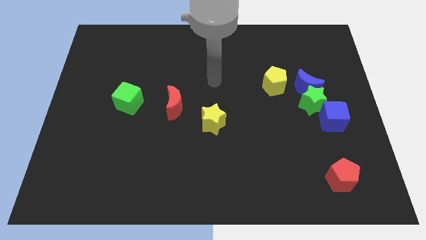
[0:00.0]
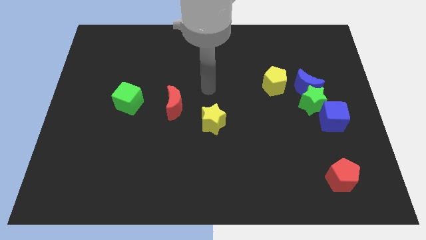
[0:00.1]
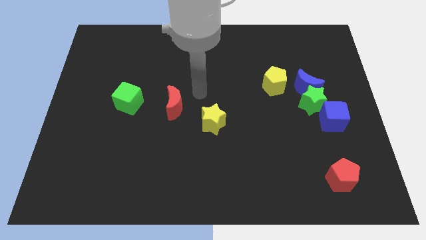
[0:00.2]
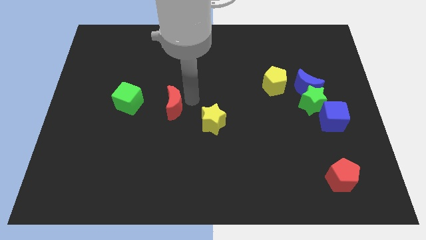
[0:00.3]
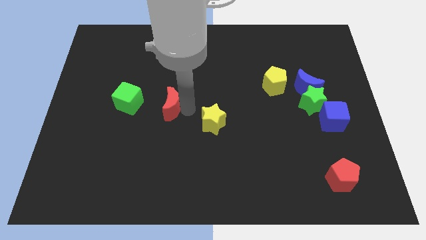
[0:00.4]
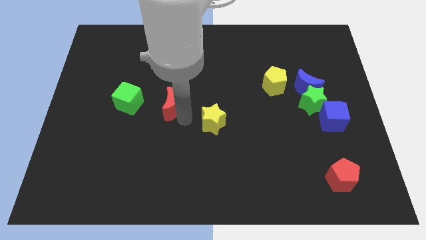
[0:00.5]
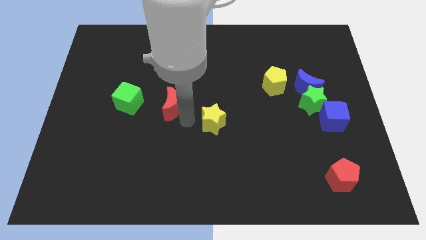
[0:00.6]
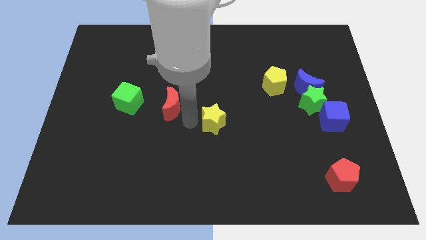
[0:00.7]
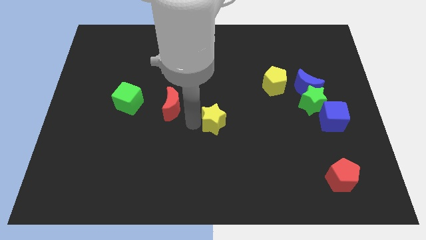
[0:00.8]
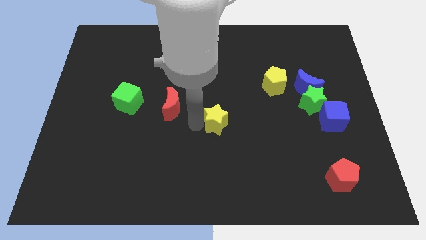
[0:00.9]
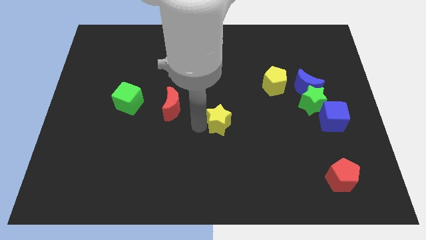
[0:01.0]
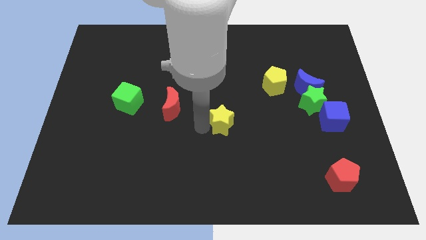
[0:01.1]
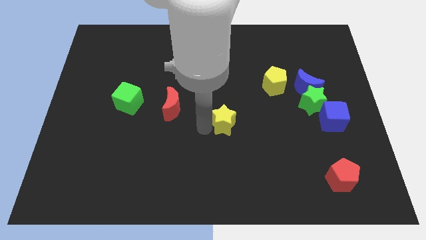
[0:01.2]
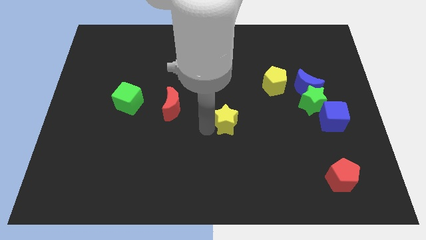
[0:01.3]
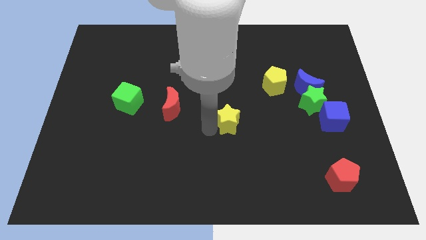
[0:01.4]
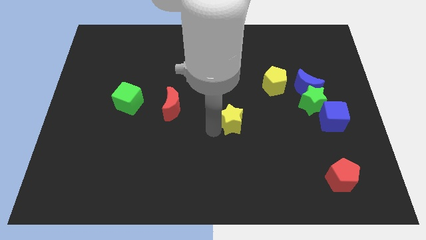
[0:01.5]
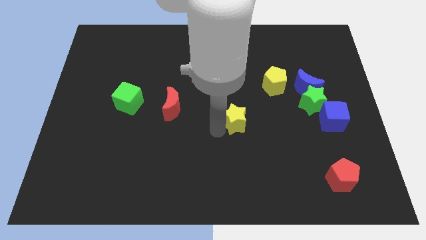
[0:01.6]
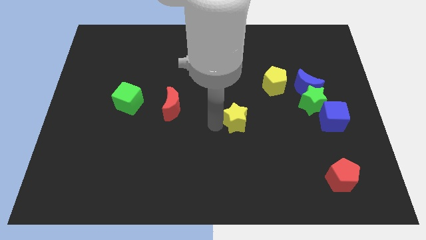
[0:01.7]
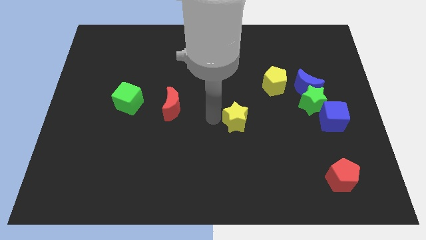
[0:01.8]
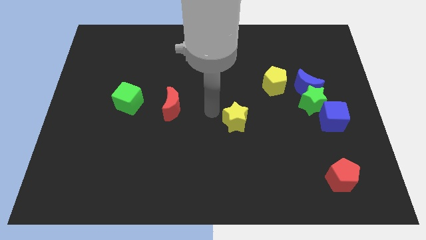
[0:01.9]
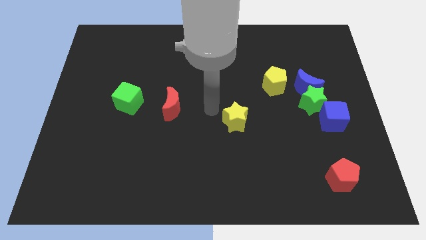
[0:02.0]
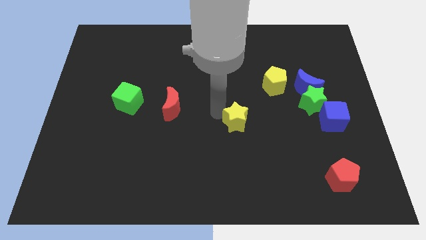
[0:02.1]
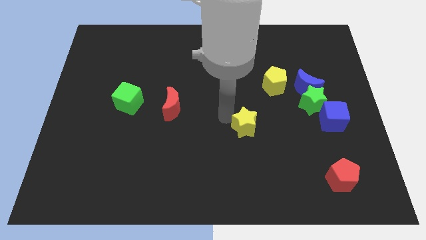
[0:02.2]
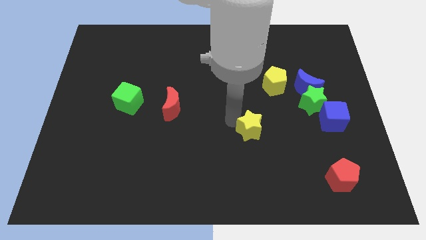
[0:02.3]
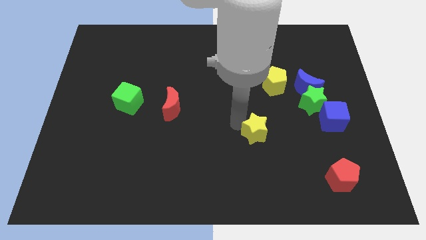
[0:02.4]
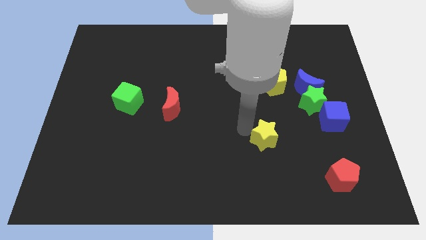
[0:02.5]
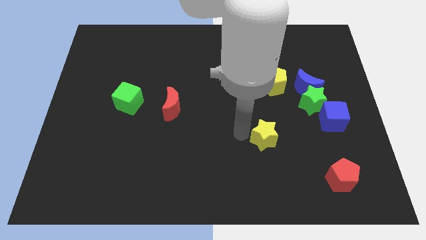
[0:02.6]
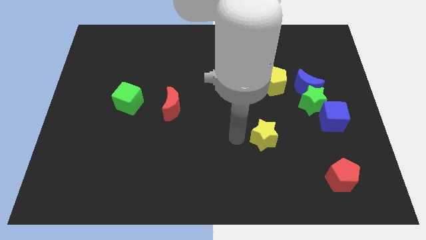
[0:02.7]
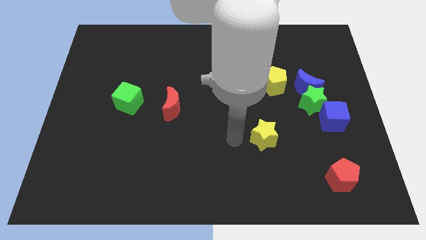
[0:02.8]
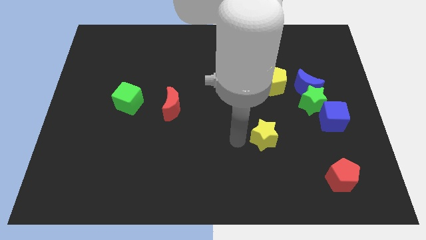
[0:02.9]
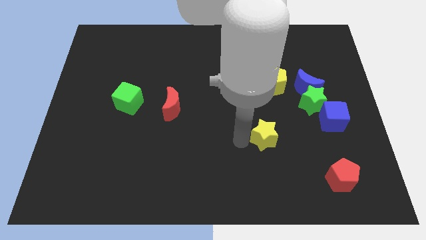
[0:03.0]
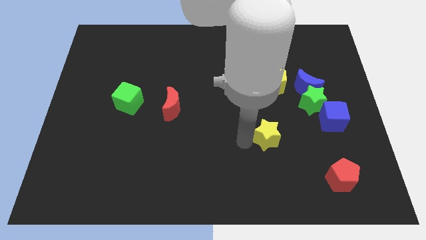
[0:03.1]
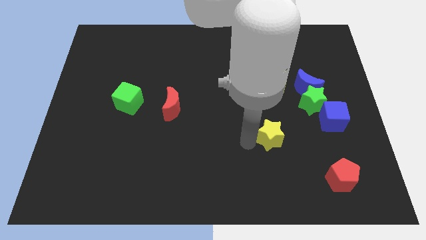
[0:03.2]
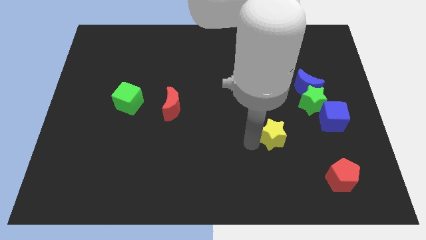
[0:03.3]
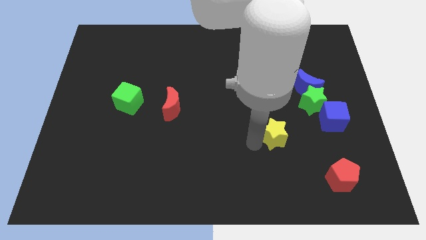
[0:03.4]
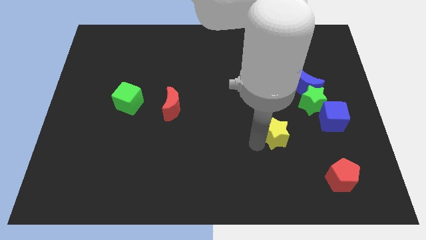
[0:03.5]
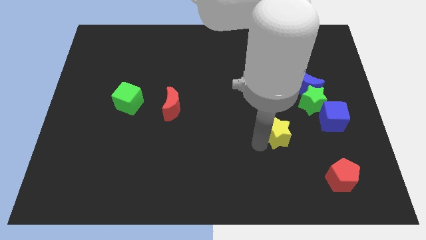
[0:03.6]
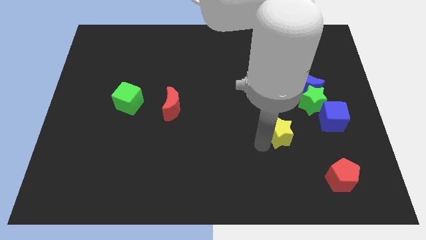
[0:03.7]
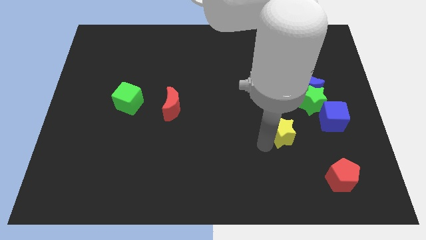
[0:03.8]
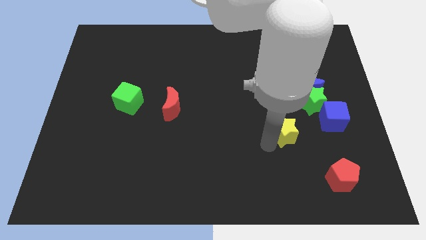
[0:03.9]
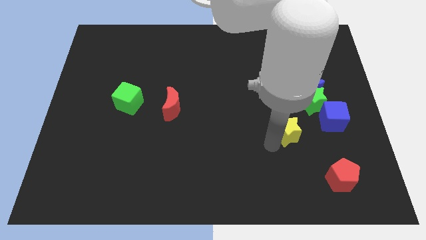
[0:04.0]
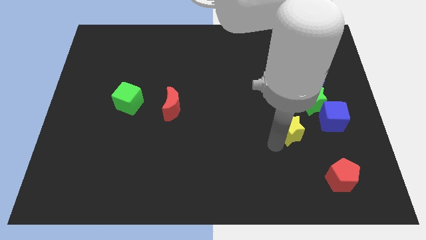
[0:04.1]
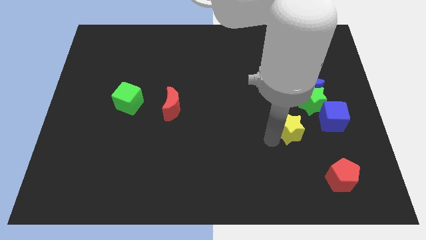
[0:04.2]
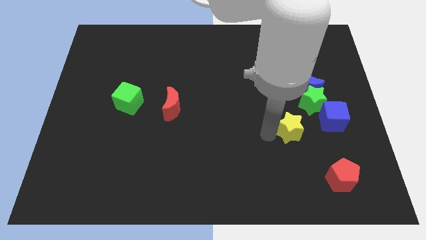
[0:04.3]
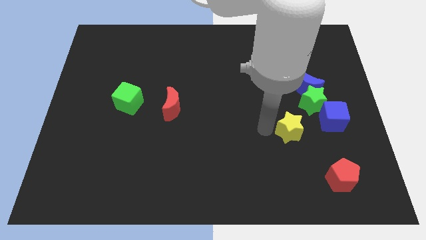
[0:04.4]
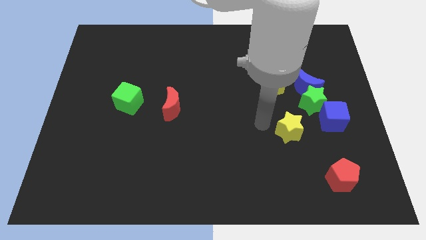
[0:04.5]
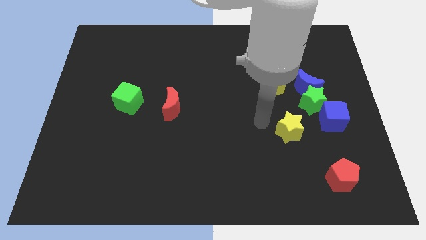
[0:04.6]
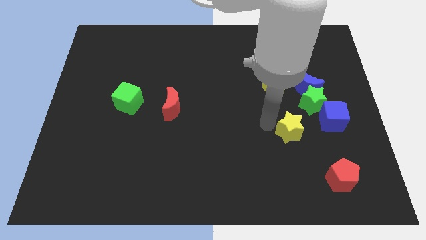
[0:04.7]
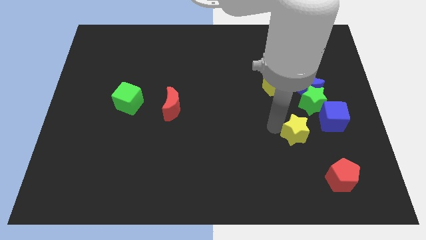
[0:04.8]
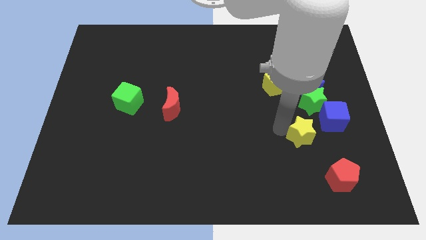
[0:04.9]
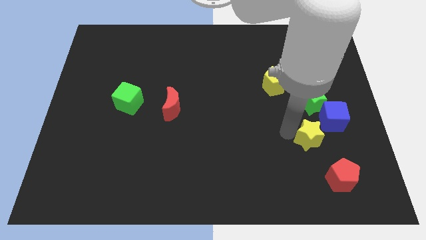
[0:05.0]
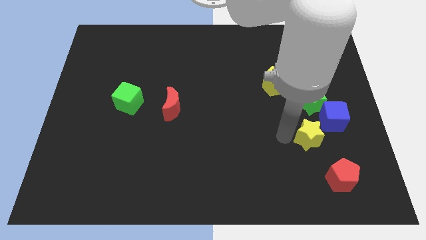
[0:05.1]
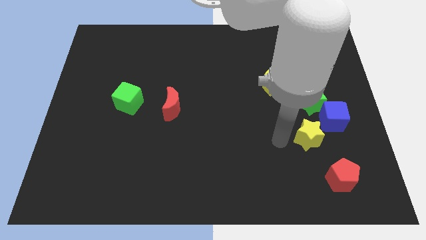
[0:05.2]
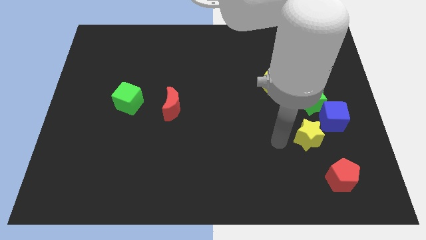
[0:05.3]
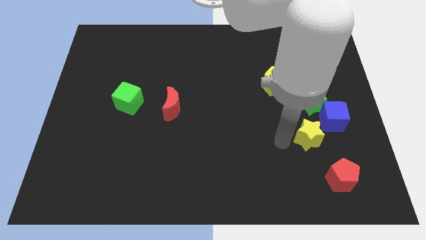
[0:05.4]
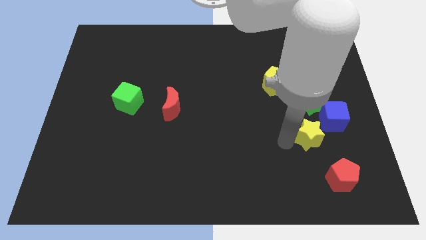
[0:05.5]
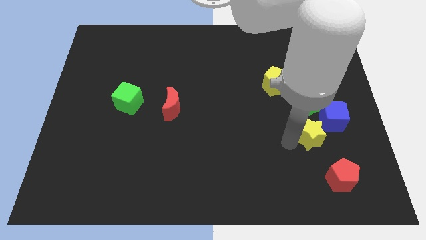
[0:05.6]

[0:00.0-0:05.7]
put the yellow star above the red pentagon

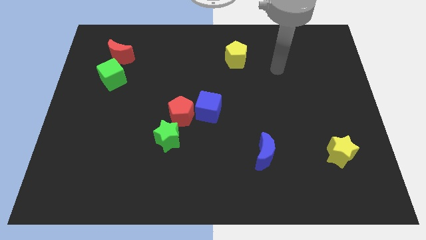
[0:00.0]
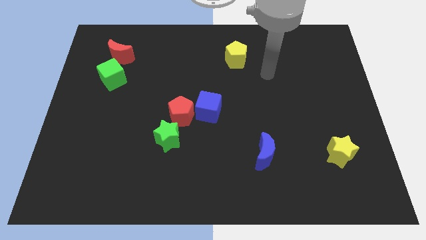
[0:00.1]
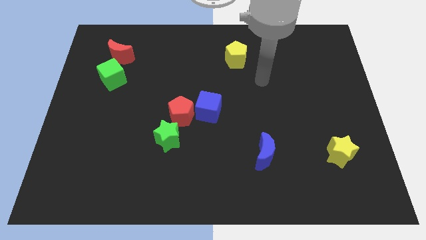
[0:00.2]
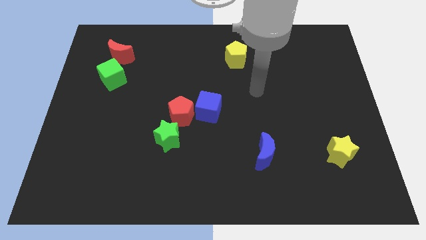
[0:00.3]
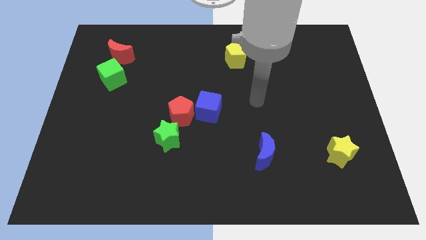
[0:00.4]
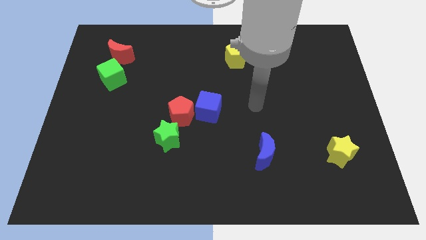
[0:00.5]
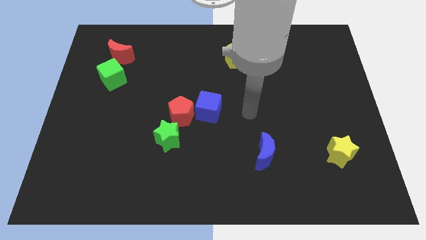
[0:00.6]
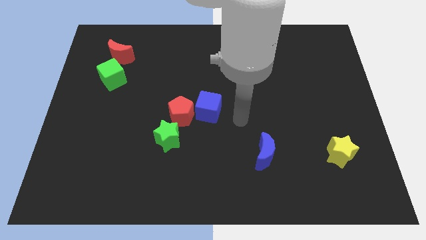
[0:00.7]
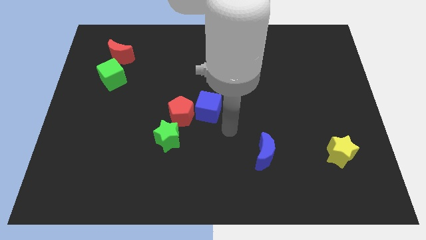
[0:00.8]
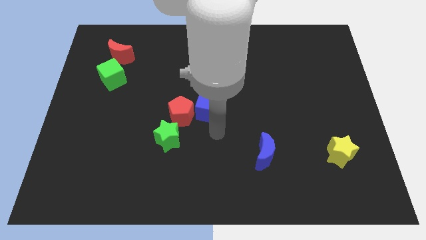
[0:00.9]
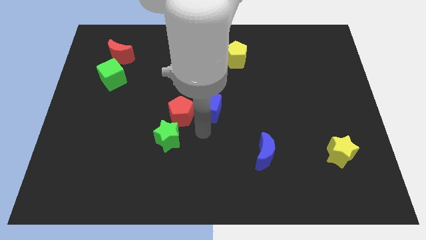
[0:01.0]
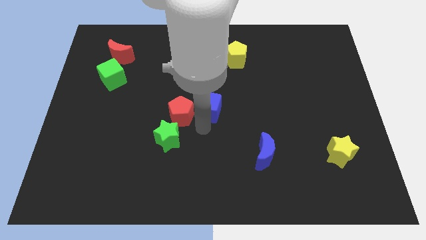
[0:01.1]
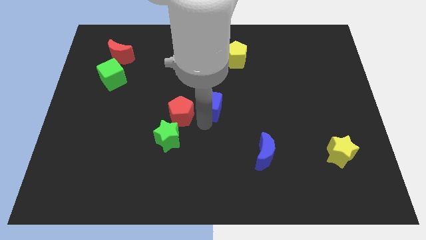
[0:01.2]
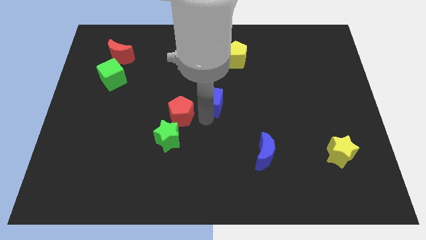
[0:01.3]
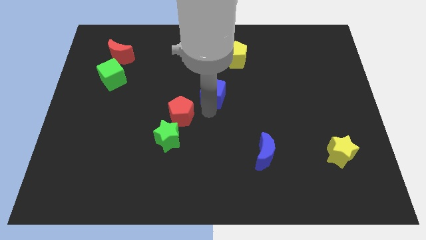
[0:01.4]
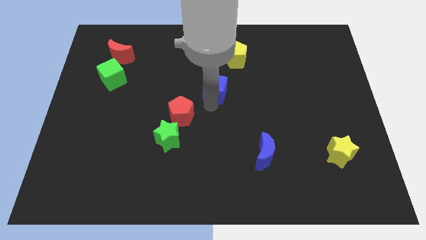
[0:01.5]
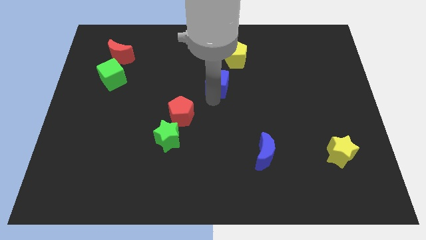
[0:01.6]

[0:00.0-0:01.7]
slide the blue cube to the bottom left side of the yellow pentagon
